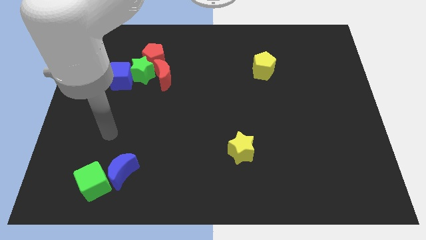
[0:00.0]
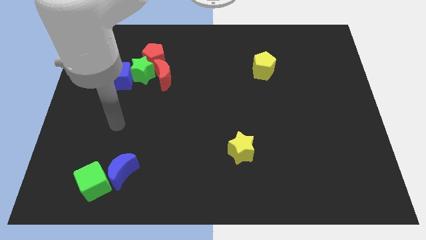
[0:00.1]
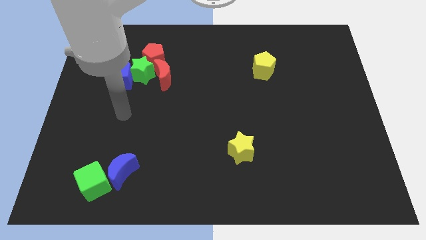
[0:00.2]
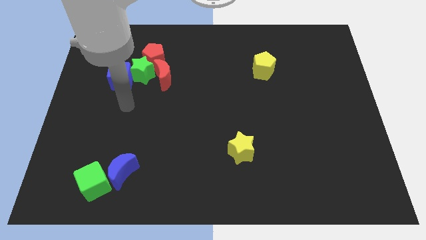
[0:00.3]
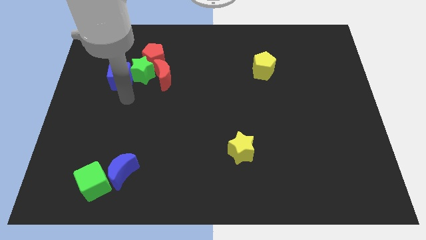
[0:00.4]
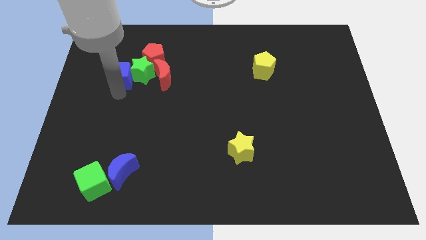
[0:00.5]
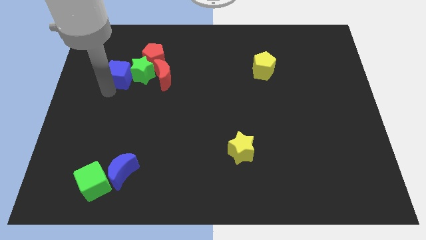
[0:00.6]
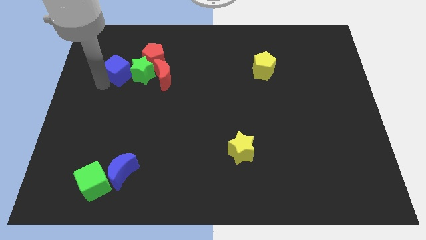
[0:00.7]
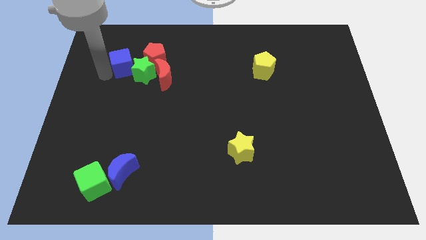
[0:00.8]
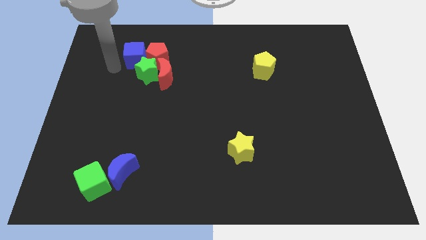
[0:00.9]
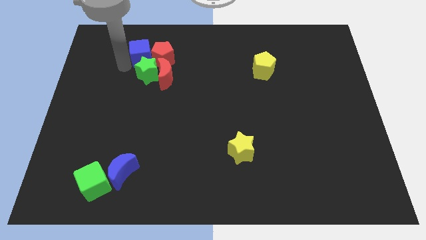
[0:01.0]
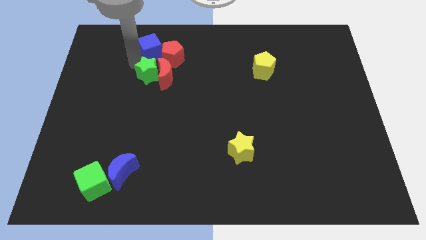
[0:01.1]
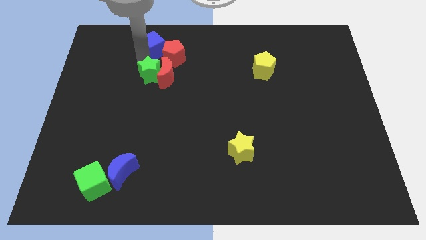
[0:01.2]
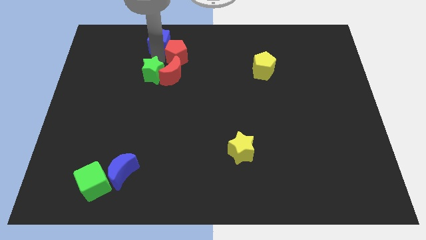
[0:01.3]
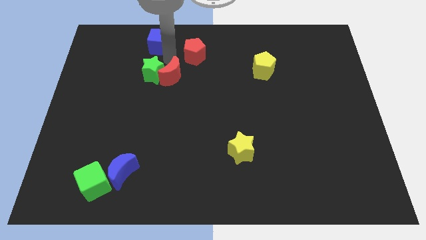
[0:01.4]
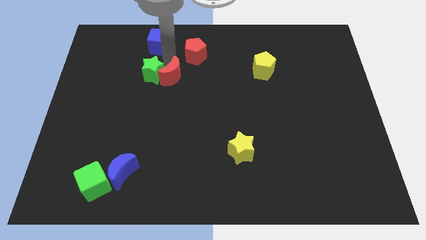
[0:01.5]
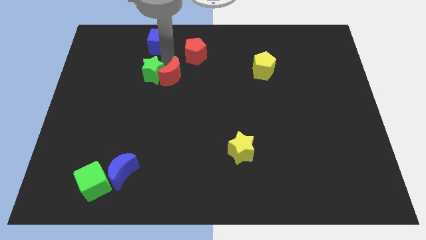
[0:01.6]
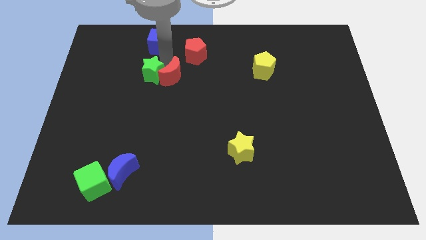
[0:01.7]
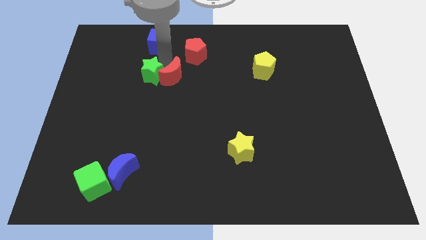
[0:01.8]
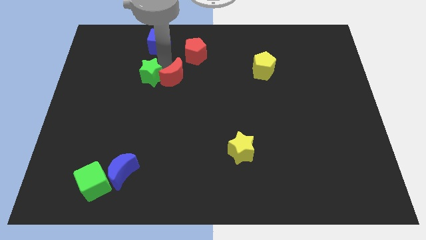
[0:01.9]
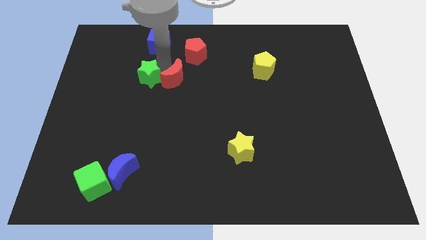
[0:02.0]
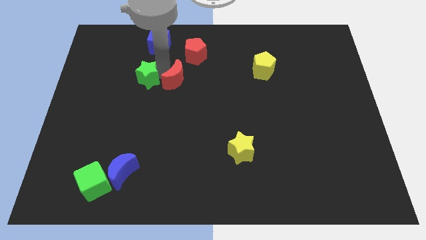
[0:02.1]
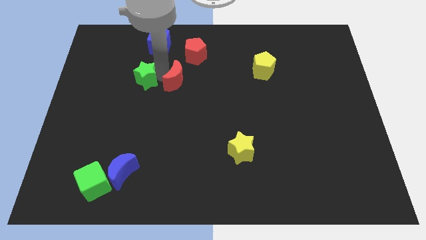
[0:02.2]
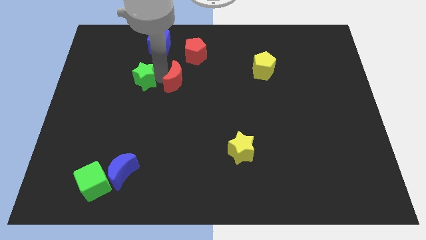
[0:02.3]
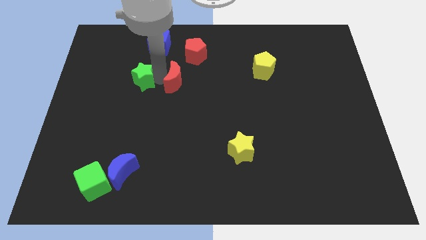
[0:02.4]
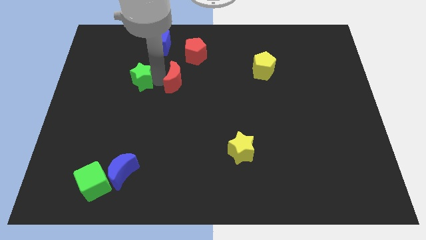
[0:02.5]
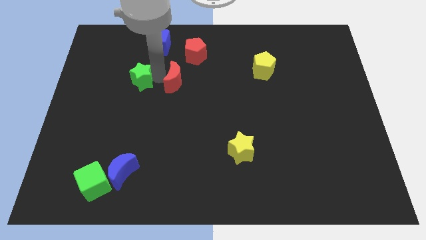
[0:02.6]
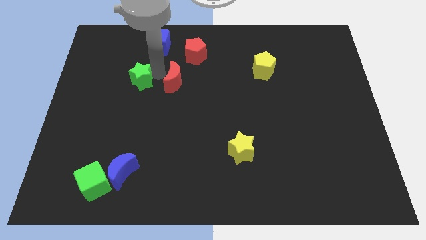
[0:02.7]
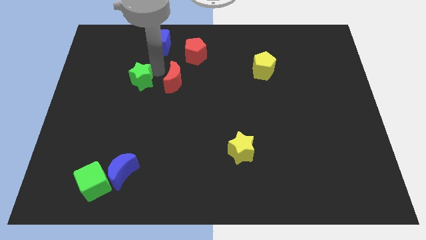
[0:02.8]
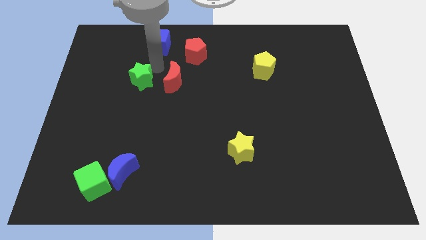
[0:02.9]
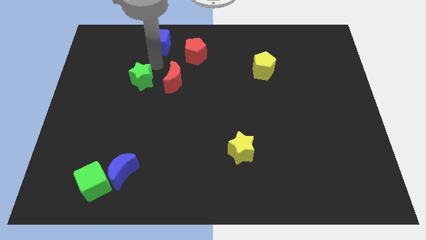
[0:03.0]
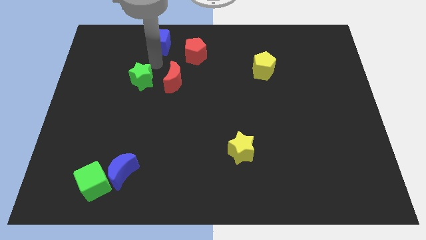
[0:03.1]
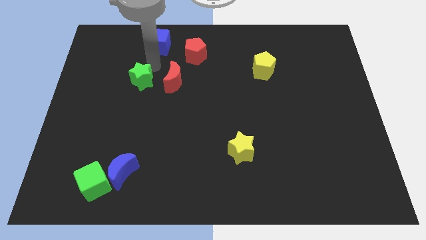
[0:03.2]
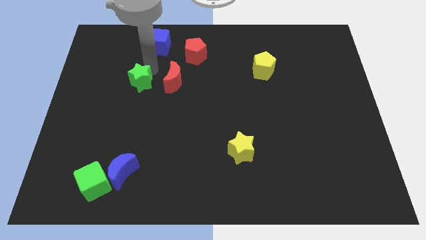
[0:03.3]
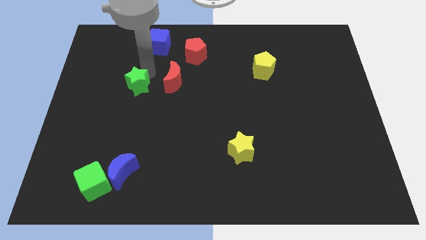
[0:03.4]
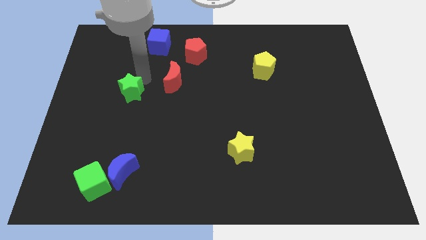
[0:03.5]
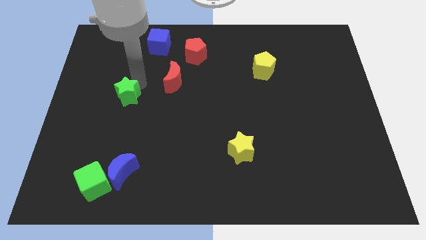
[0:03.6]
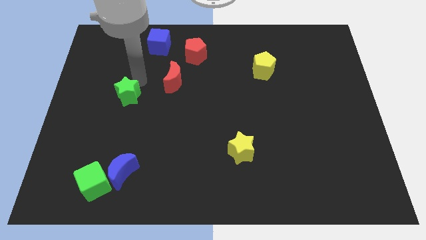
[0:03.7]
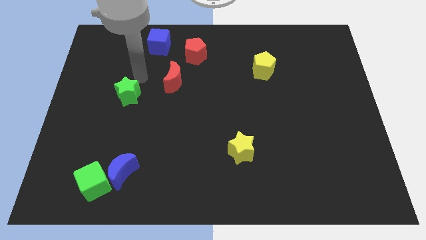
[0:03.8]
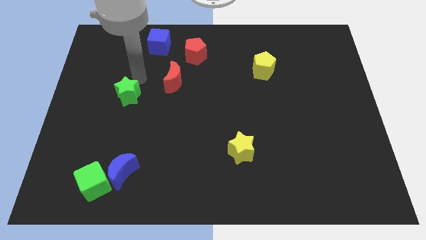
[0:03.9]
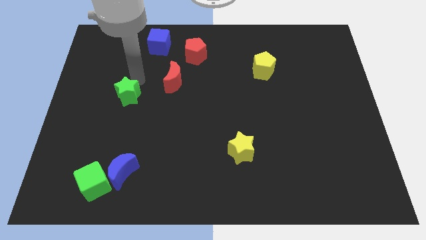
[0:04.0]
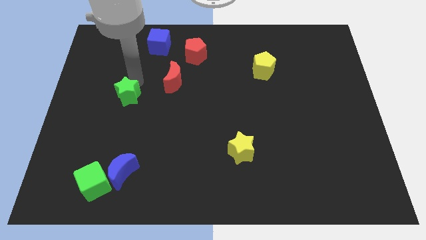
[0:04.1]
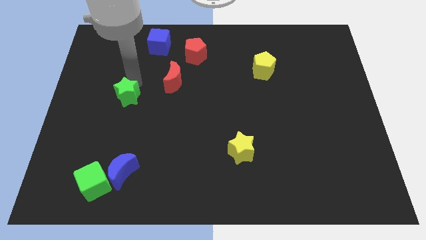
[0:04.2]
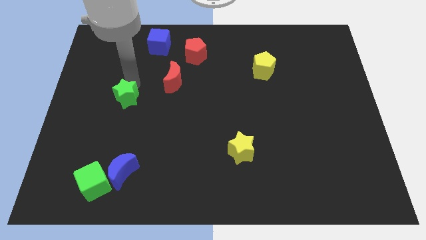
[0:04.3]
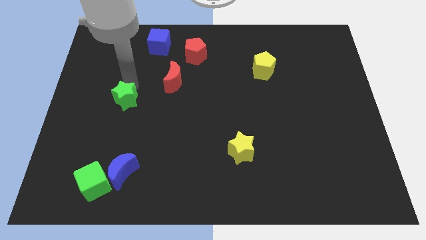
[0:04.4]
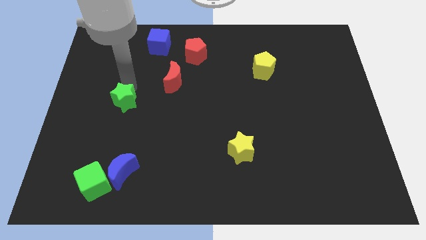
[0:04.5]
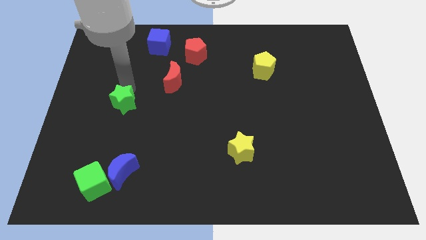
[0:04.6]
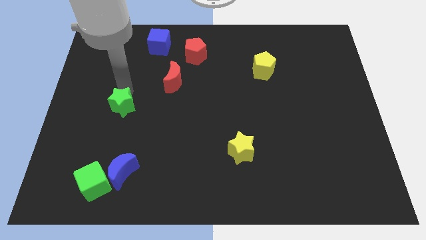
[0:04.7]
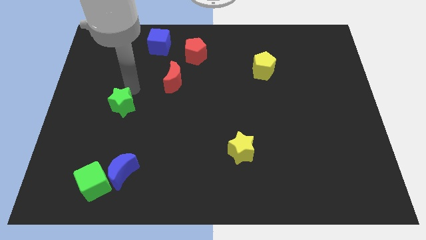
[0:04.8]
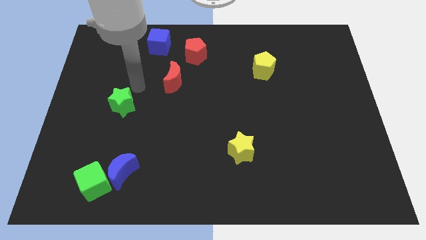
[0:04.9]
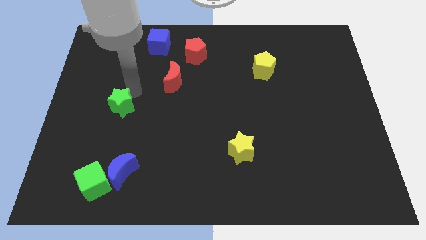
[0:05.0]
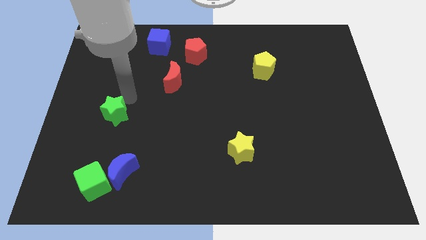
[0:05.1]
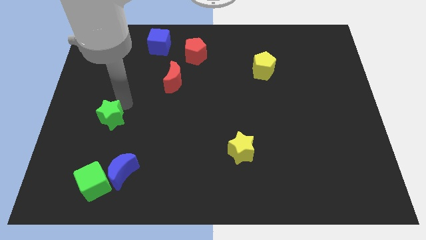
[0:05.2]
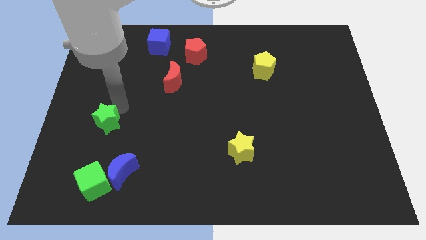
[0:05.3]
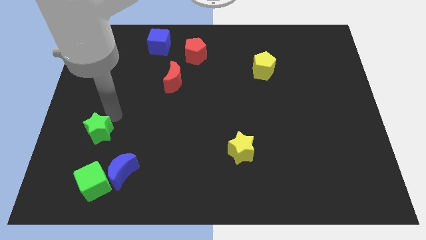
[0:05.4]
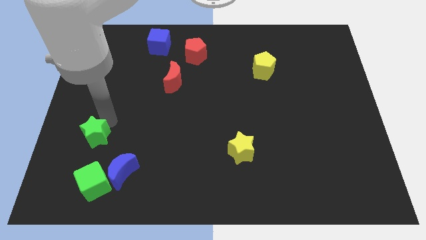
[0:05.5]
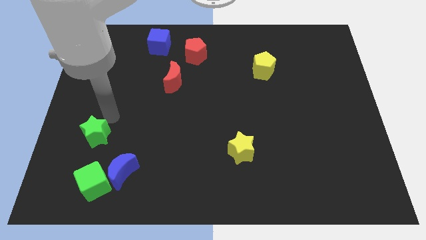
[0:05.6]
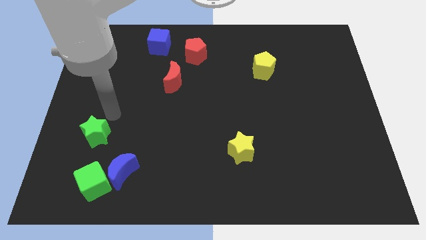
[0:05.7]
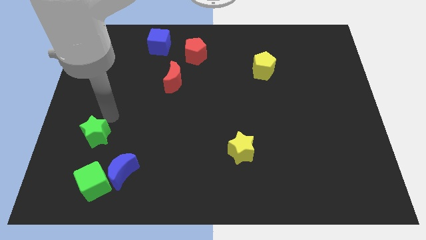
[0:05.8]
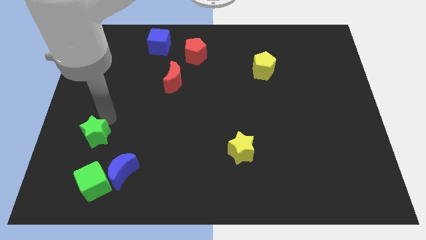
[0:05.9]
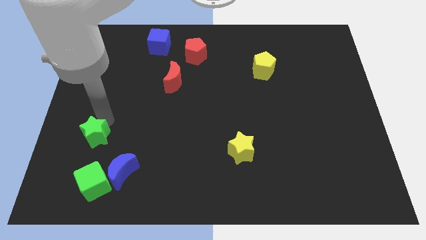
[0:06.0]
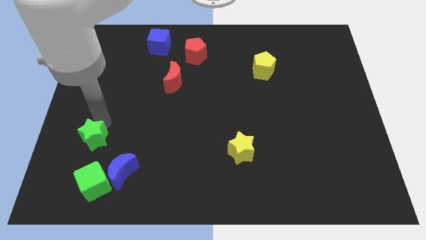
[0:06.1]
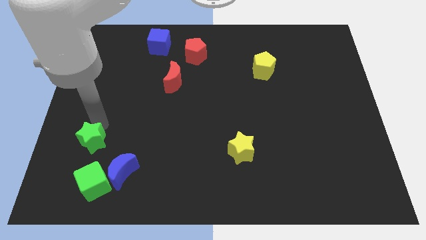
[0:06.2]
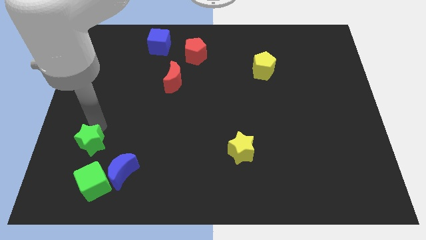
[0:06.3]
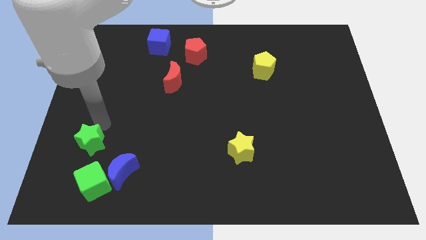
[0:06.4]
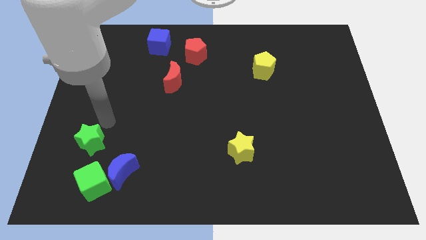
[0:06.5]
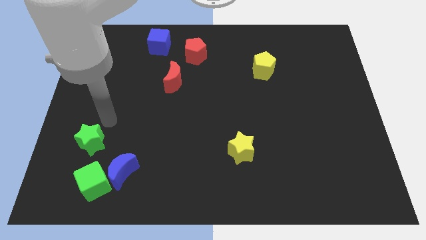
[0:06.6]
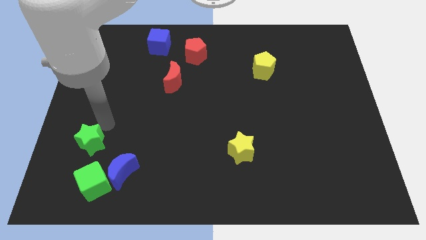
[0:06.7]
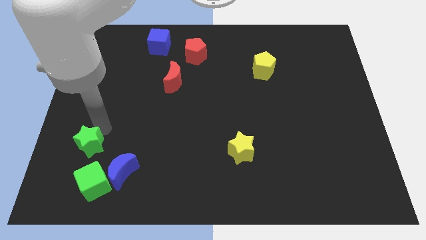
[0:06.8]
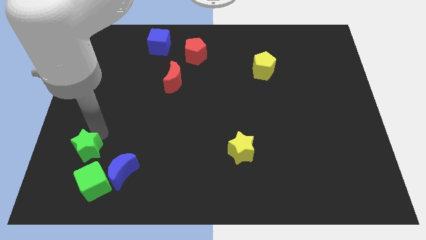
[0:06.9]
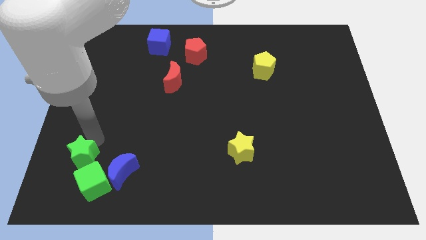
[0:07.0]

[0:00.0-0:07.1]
put the green star to the left side of the blue moon
